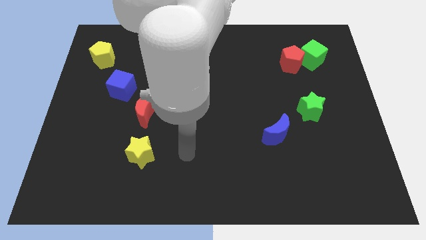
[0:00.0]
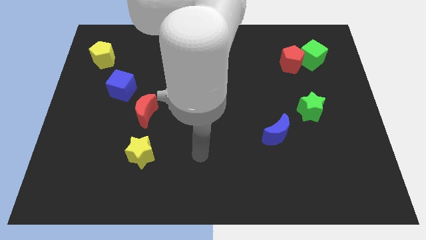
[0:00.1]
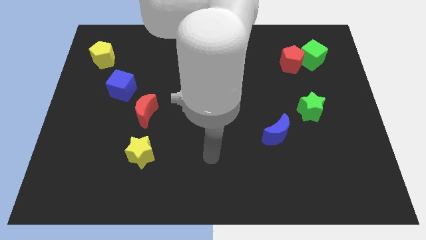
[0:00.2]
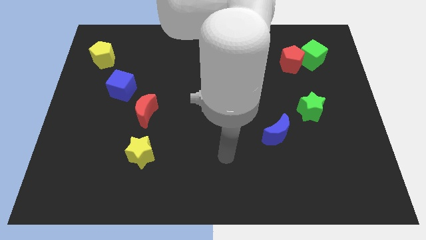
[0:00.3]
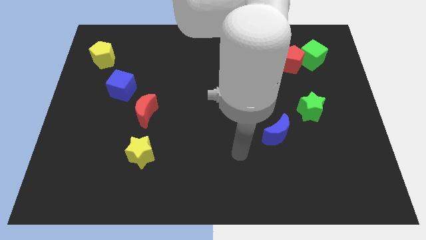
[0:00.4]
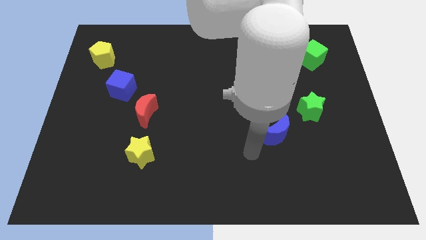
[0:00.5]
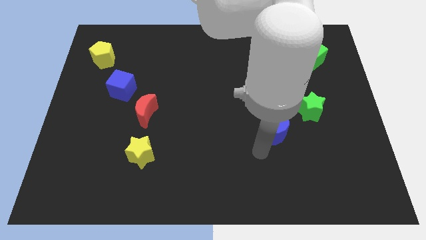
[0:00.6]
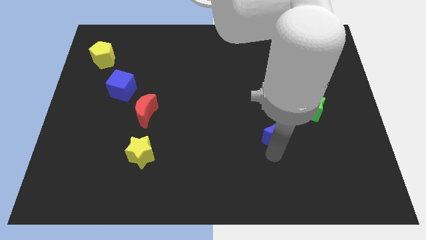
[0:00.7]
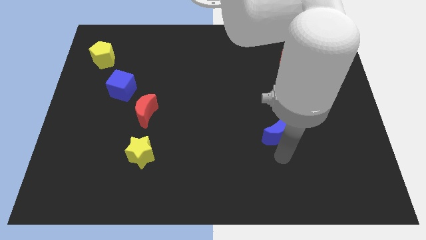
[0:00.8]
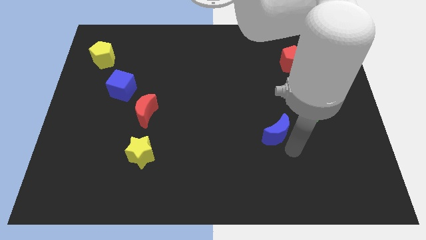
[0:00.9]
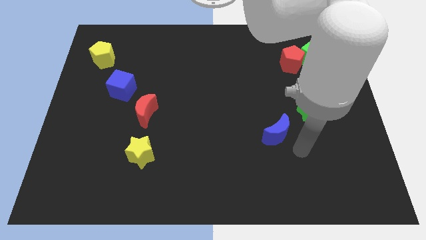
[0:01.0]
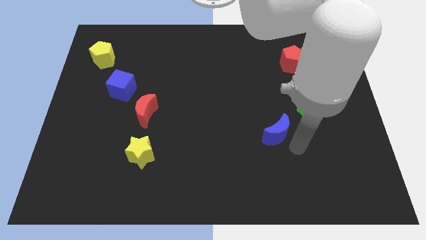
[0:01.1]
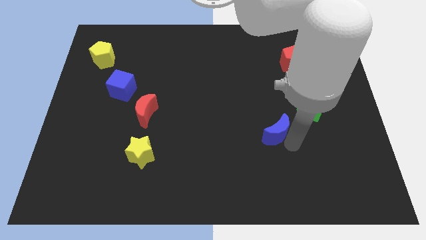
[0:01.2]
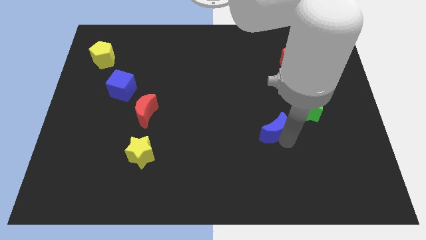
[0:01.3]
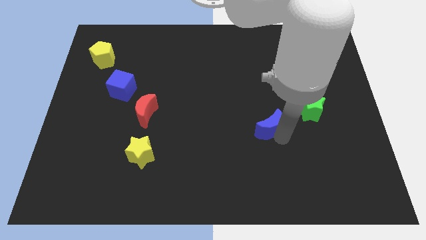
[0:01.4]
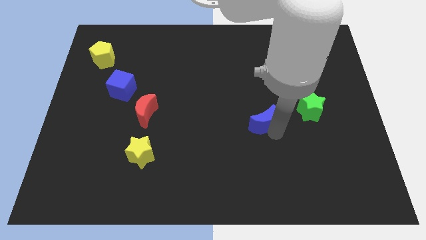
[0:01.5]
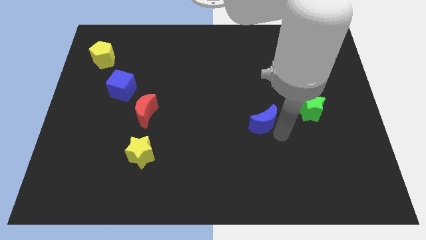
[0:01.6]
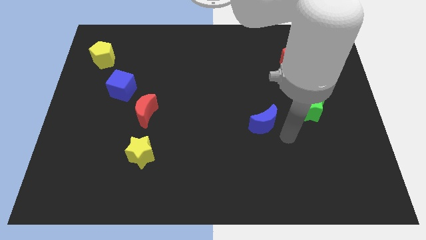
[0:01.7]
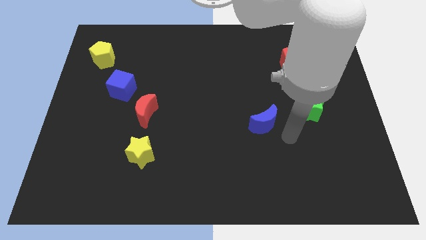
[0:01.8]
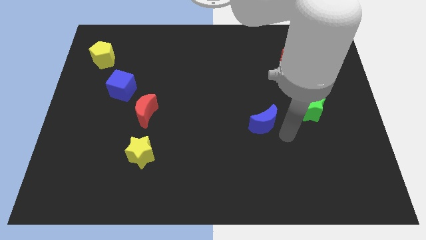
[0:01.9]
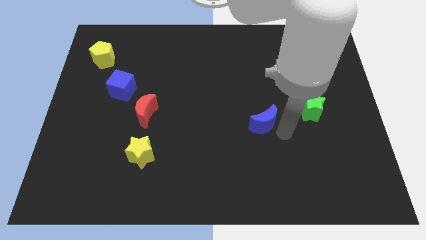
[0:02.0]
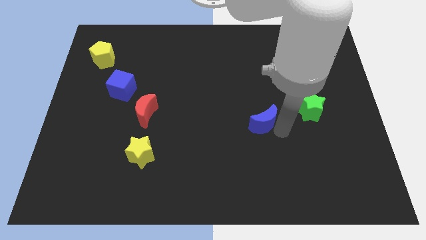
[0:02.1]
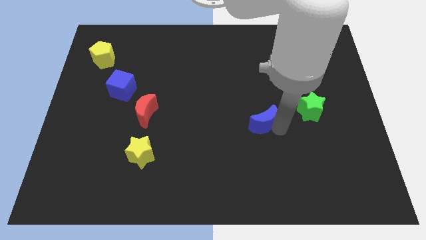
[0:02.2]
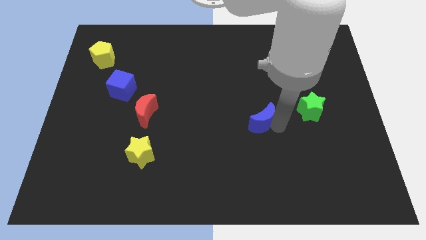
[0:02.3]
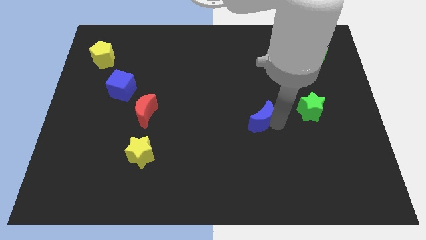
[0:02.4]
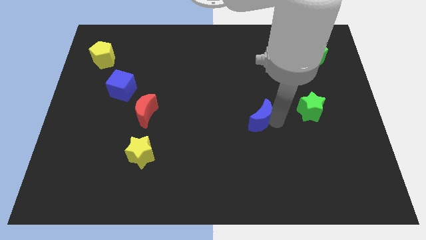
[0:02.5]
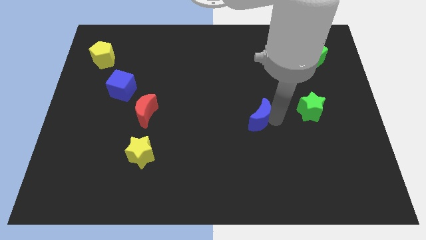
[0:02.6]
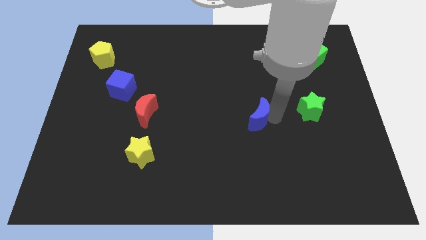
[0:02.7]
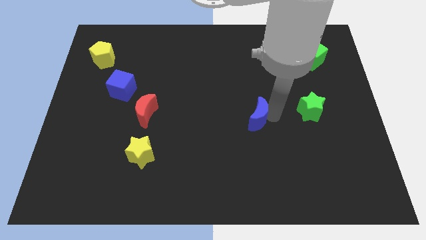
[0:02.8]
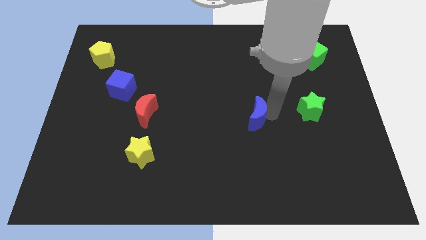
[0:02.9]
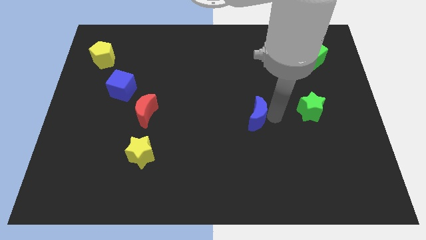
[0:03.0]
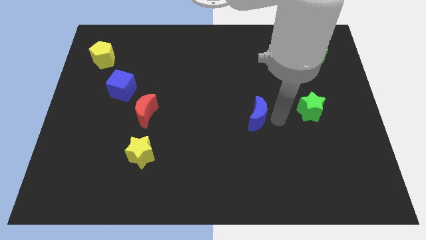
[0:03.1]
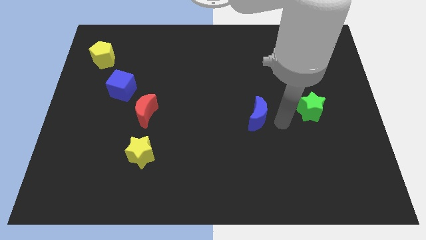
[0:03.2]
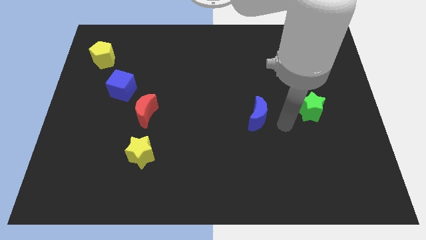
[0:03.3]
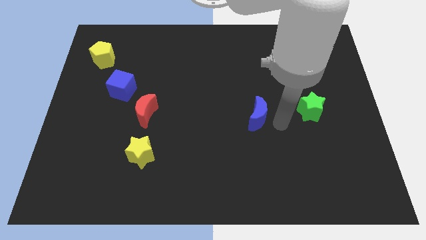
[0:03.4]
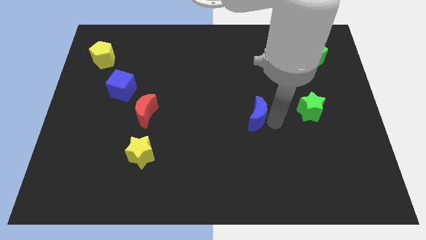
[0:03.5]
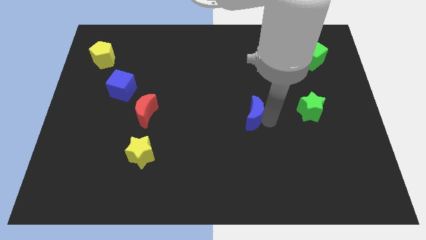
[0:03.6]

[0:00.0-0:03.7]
move the blue moon diagonally up and left slightly

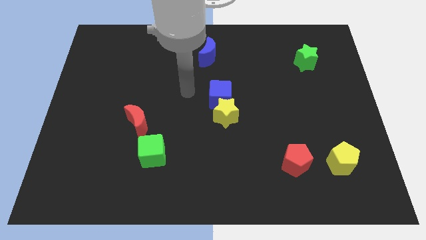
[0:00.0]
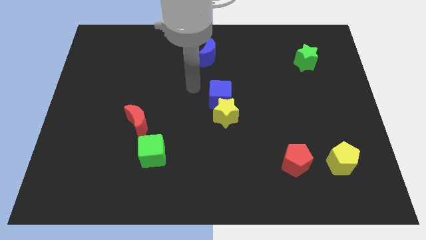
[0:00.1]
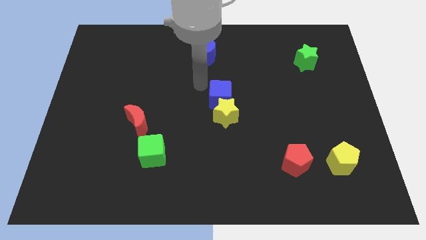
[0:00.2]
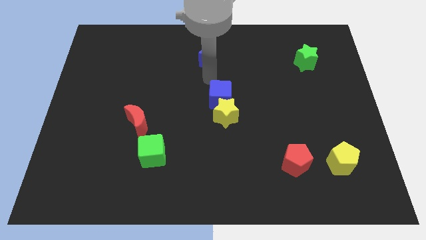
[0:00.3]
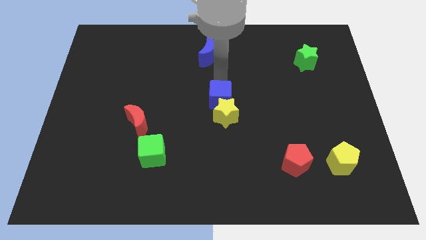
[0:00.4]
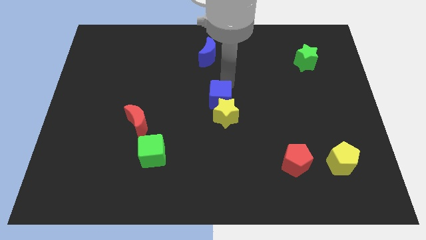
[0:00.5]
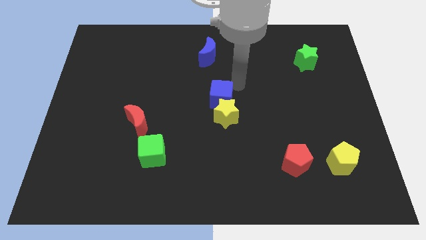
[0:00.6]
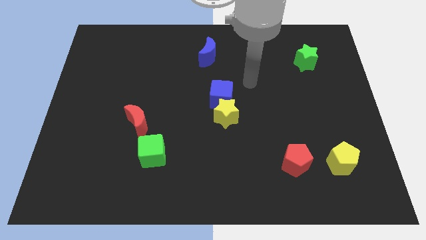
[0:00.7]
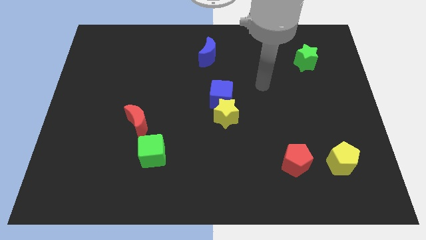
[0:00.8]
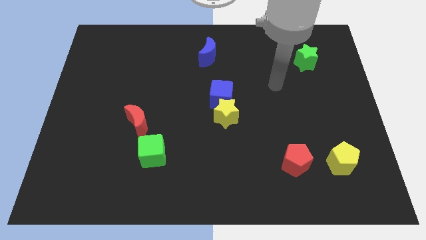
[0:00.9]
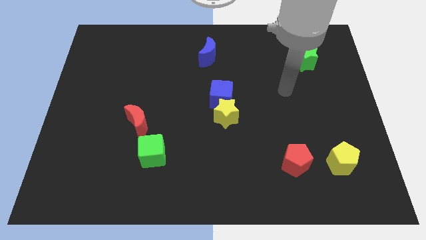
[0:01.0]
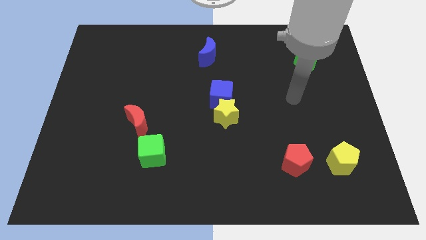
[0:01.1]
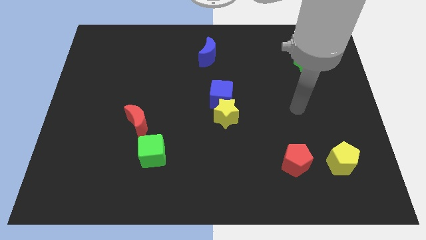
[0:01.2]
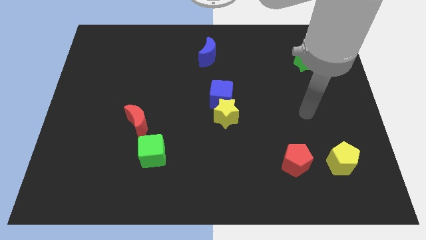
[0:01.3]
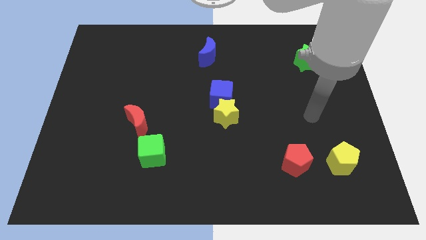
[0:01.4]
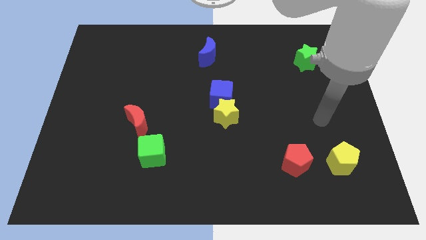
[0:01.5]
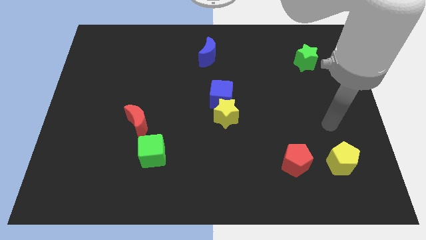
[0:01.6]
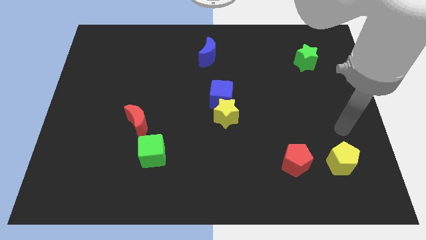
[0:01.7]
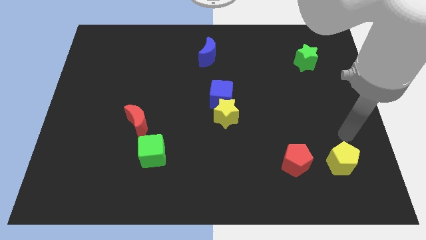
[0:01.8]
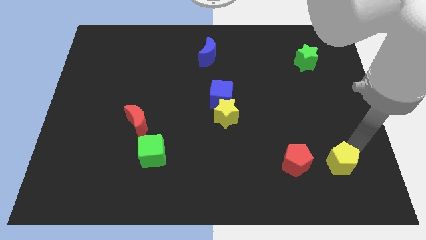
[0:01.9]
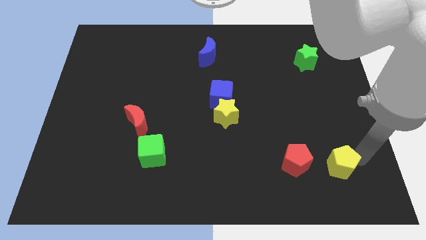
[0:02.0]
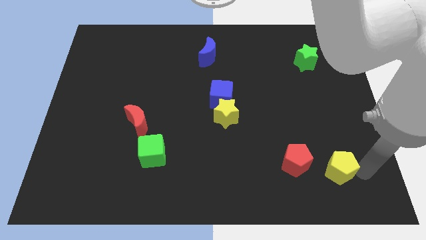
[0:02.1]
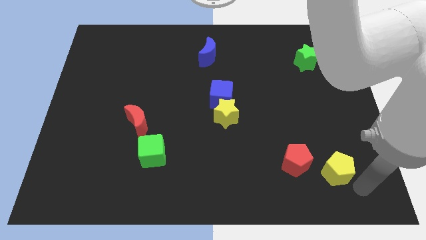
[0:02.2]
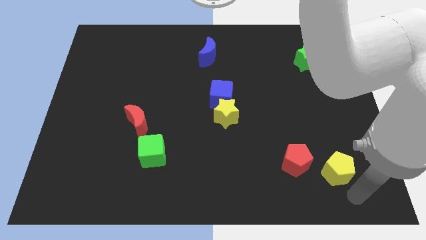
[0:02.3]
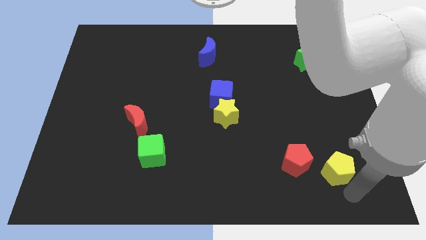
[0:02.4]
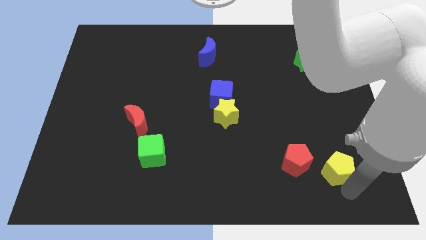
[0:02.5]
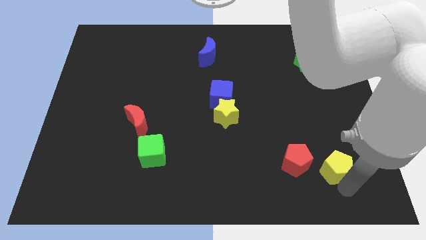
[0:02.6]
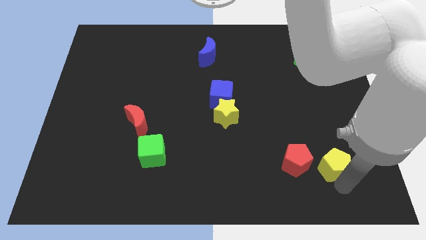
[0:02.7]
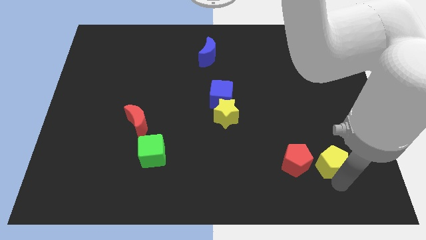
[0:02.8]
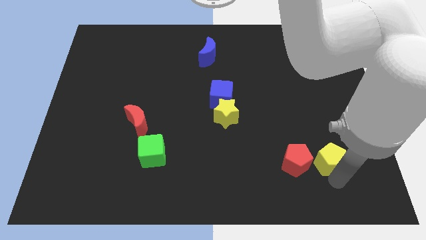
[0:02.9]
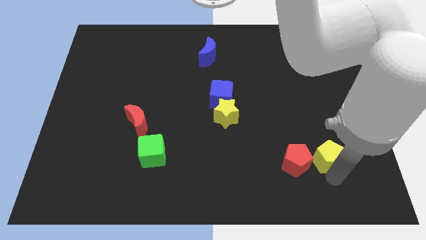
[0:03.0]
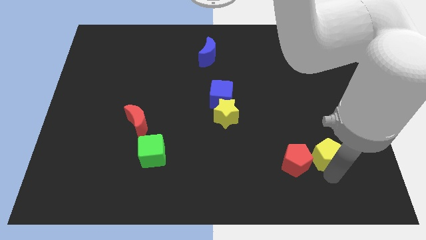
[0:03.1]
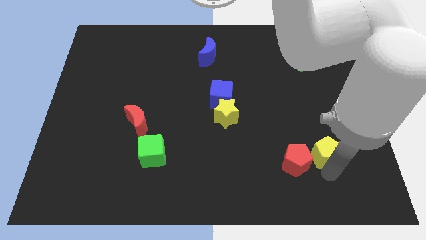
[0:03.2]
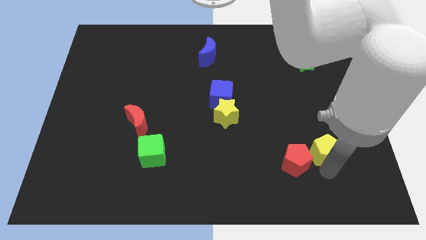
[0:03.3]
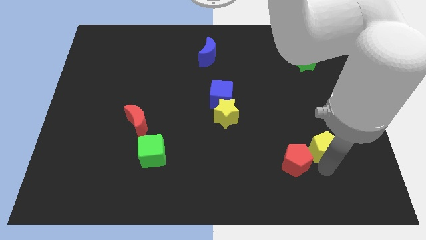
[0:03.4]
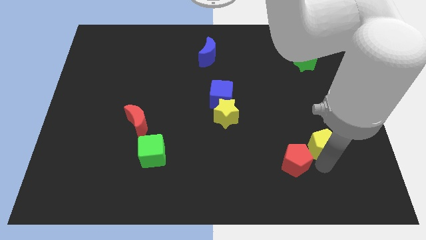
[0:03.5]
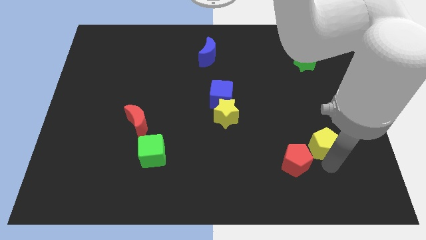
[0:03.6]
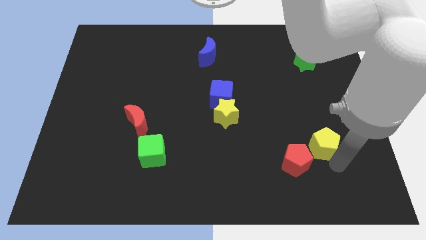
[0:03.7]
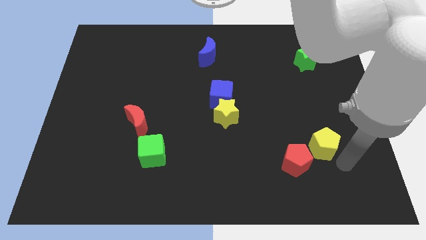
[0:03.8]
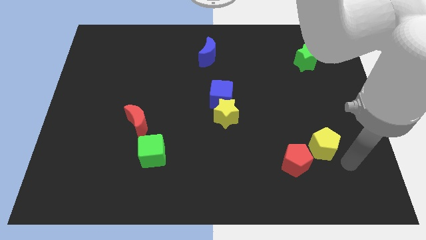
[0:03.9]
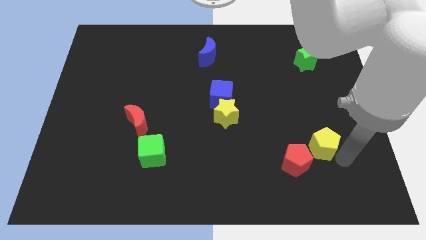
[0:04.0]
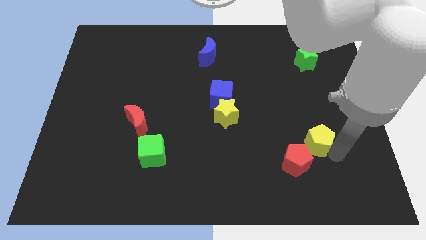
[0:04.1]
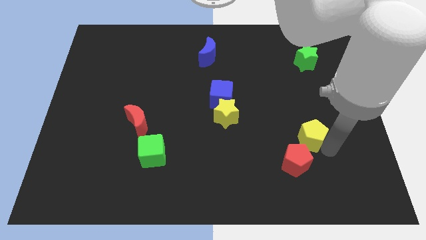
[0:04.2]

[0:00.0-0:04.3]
slightly slide the yellow pentagon up and to the left diagonally
